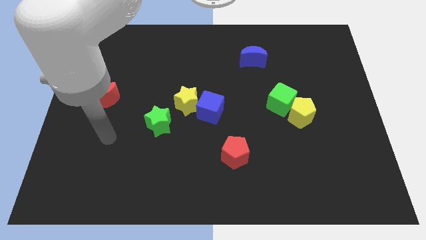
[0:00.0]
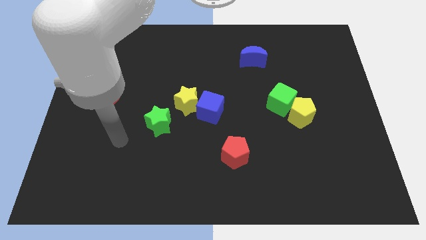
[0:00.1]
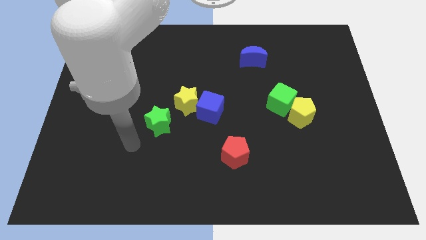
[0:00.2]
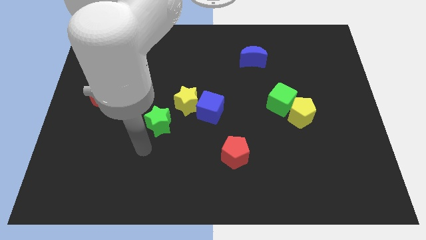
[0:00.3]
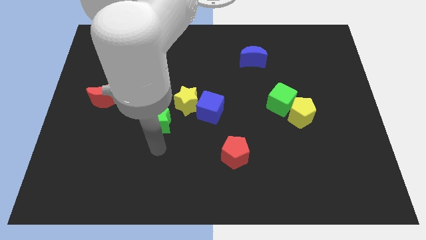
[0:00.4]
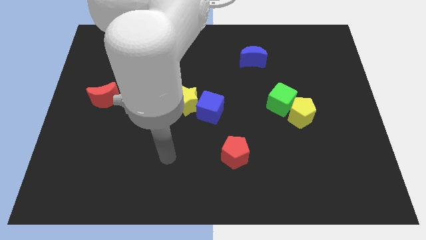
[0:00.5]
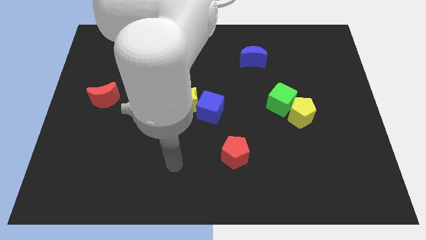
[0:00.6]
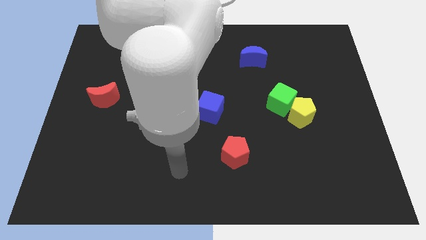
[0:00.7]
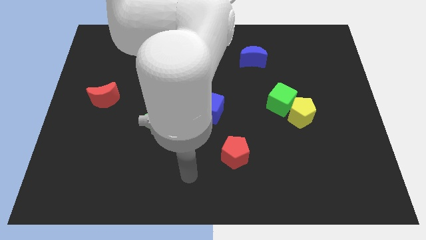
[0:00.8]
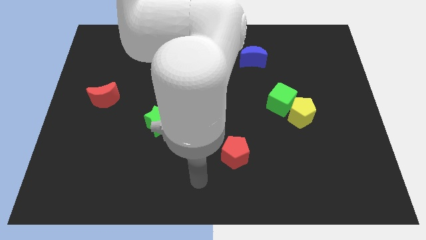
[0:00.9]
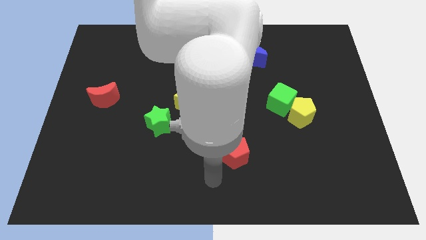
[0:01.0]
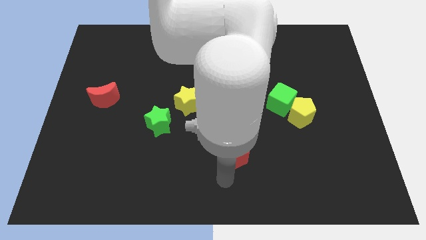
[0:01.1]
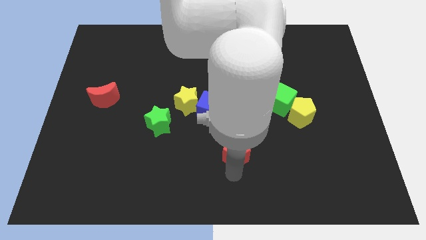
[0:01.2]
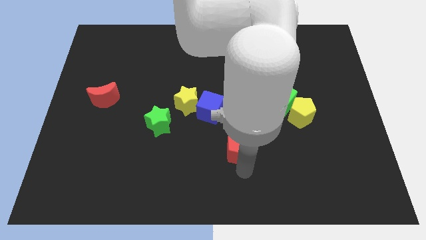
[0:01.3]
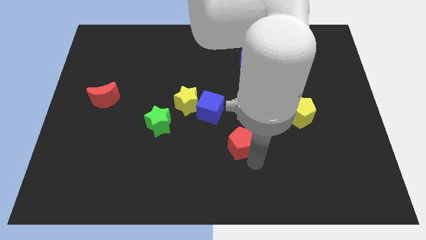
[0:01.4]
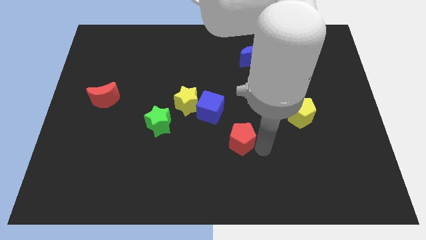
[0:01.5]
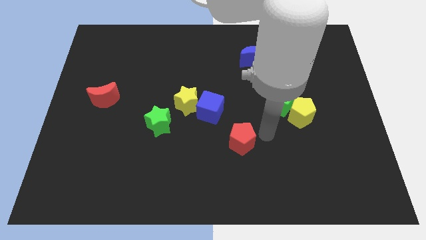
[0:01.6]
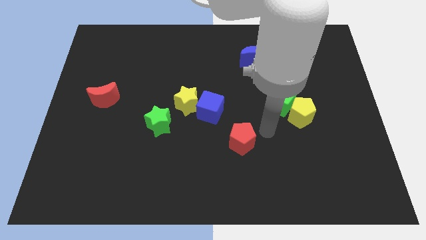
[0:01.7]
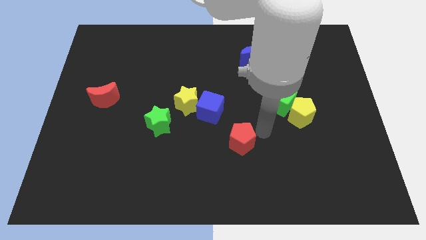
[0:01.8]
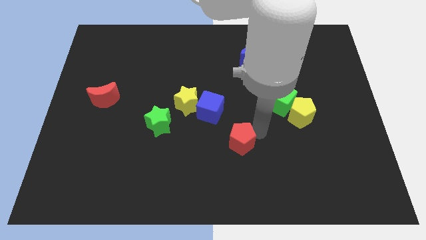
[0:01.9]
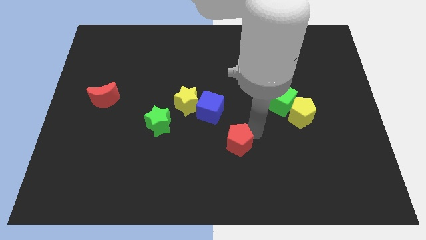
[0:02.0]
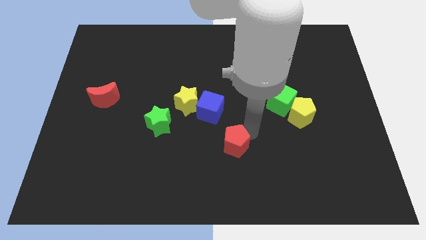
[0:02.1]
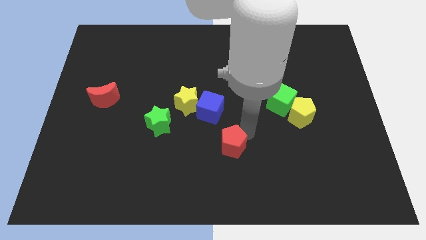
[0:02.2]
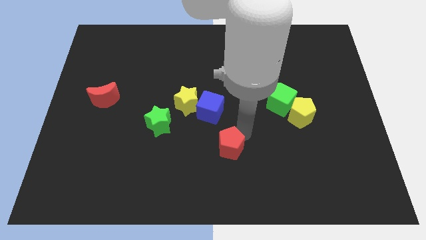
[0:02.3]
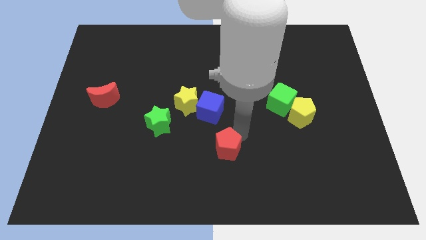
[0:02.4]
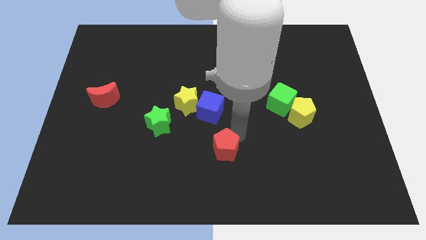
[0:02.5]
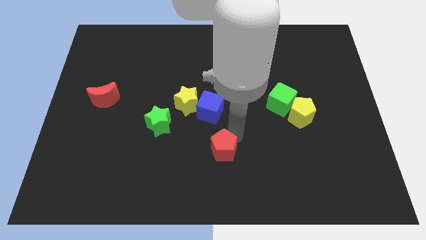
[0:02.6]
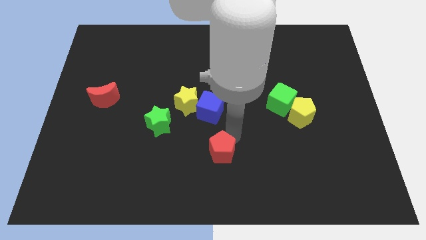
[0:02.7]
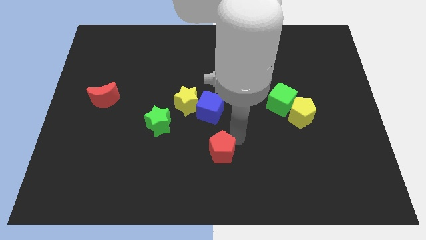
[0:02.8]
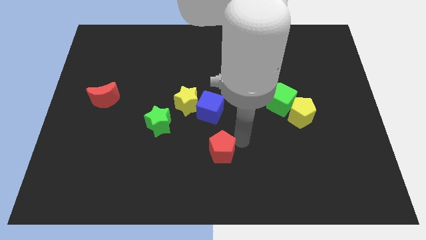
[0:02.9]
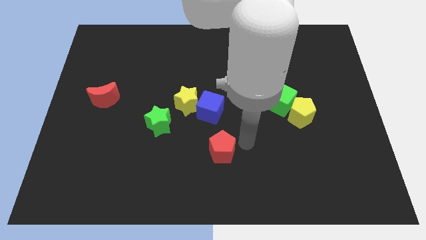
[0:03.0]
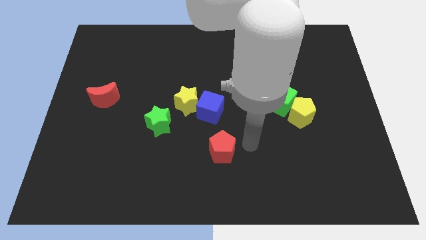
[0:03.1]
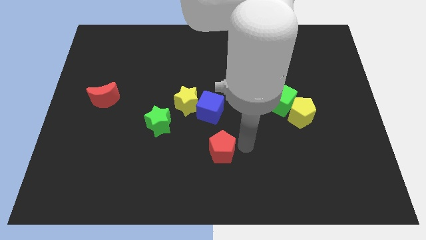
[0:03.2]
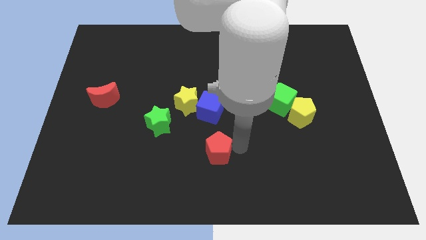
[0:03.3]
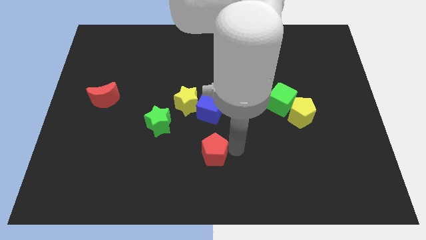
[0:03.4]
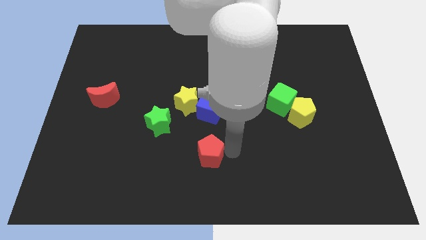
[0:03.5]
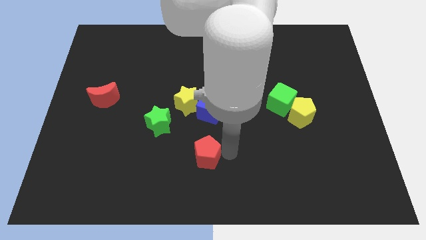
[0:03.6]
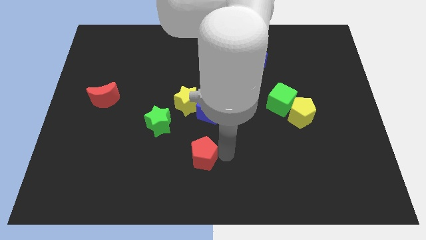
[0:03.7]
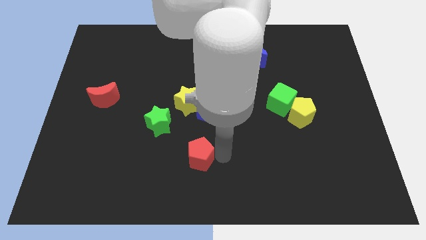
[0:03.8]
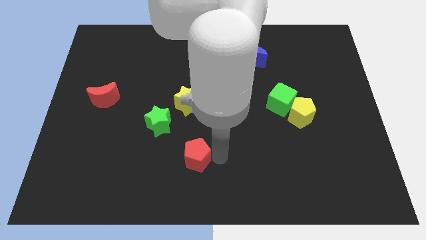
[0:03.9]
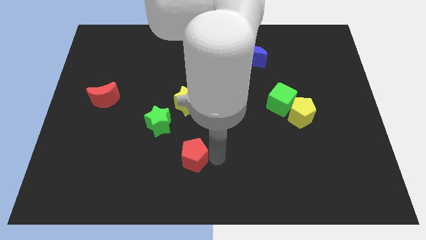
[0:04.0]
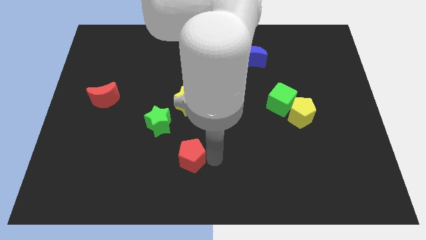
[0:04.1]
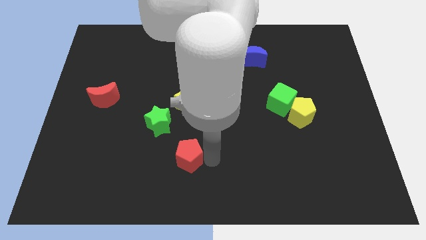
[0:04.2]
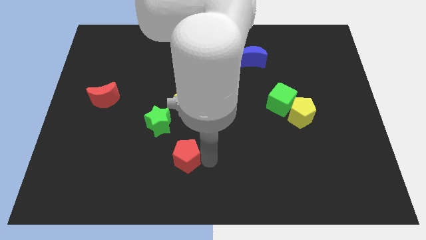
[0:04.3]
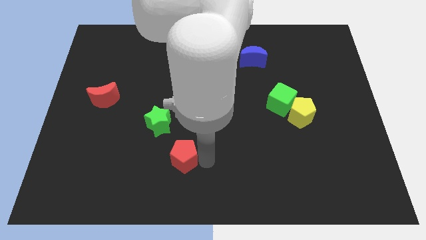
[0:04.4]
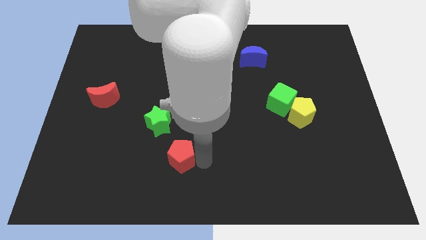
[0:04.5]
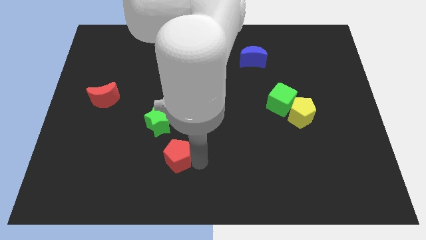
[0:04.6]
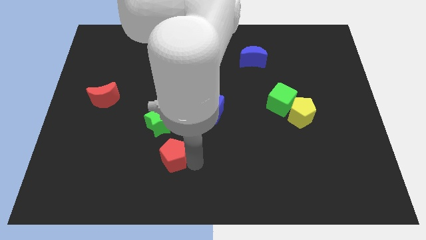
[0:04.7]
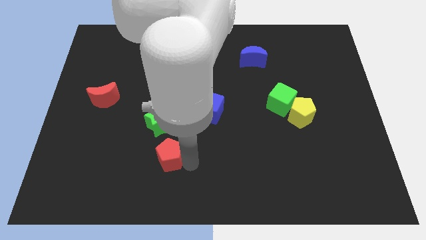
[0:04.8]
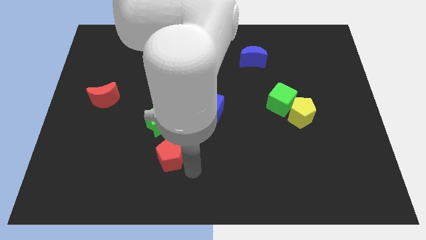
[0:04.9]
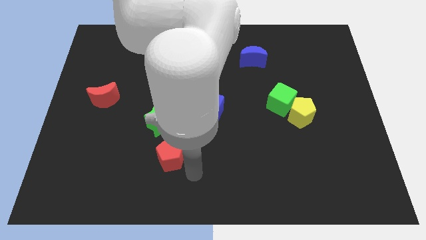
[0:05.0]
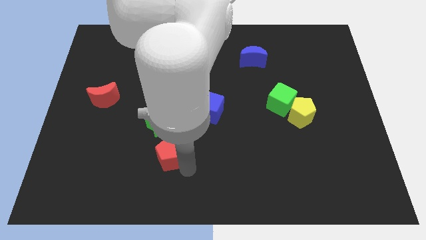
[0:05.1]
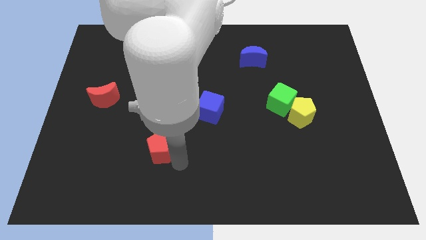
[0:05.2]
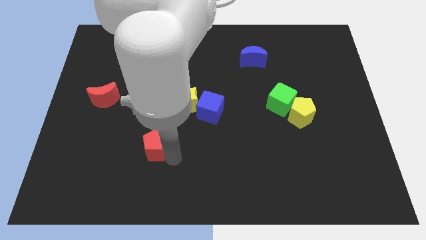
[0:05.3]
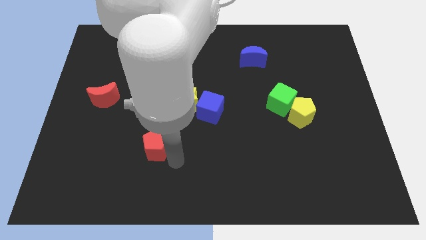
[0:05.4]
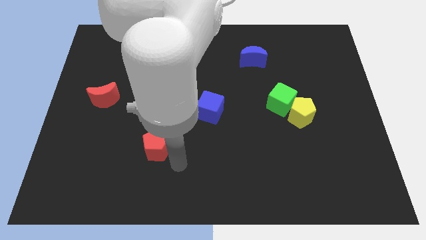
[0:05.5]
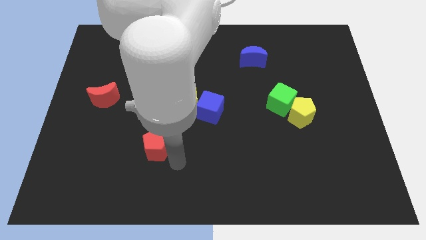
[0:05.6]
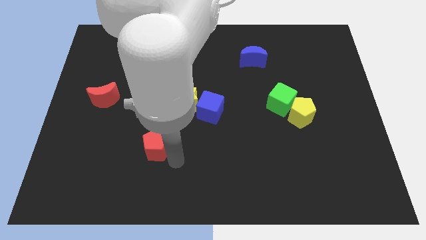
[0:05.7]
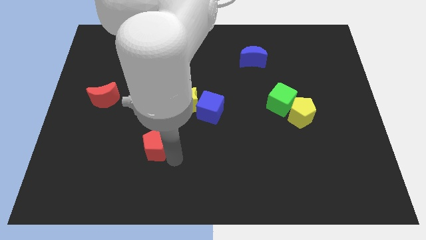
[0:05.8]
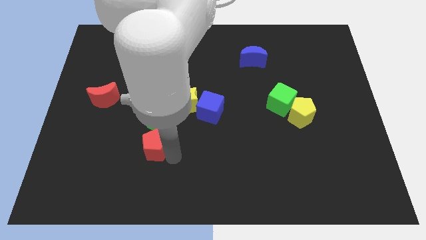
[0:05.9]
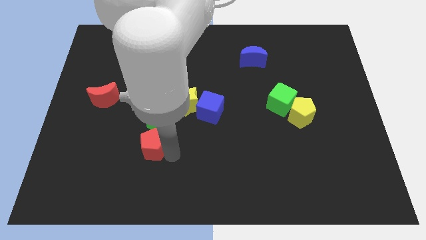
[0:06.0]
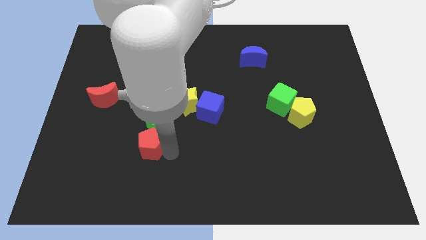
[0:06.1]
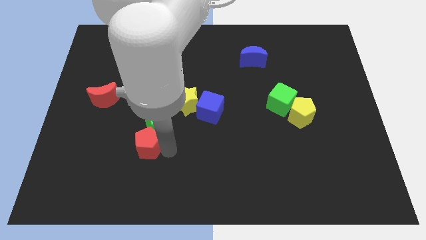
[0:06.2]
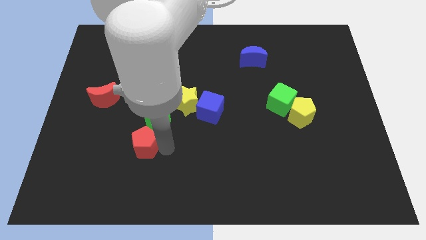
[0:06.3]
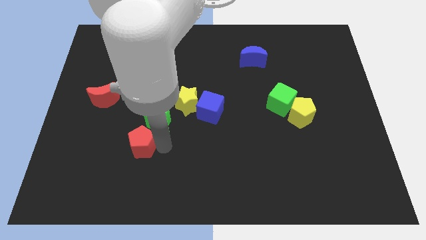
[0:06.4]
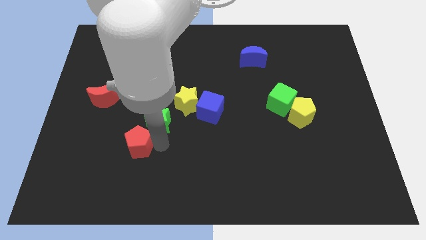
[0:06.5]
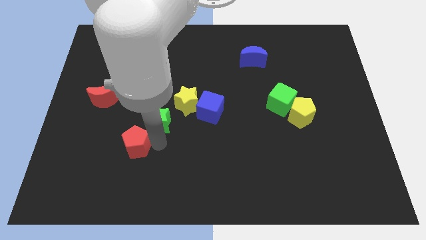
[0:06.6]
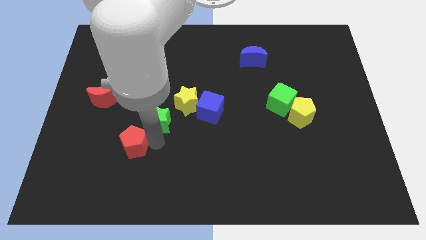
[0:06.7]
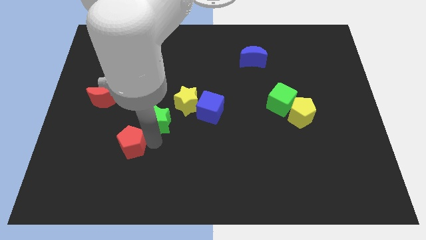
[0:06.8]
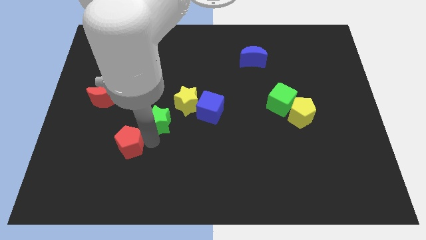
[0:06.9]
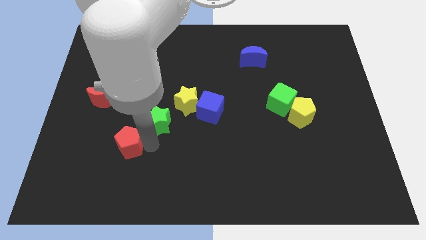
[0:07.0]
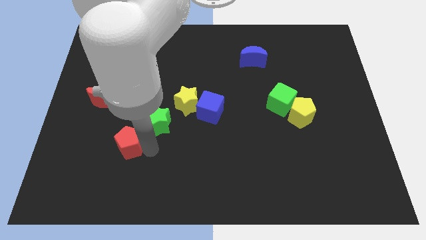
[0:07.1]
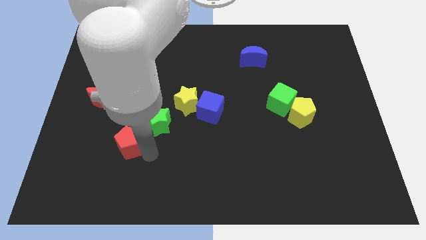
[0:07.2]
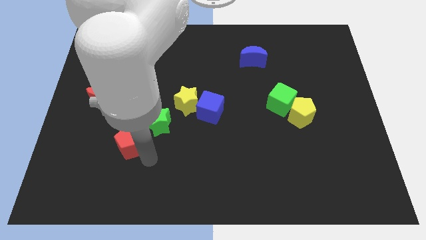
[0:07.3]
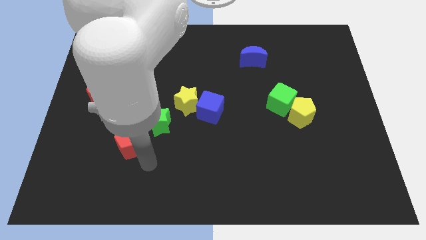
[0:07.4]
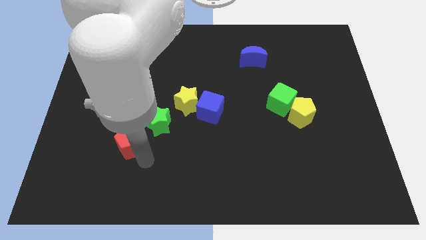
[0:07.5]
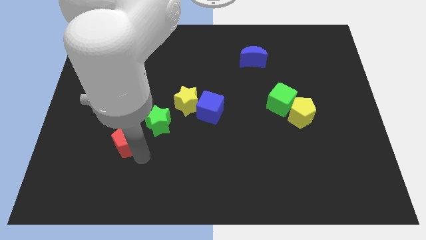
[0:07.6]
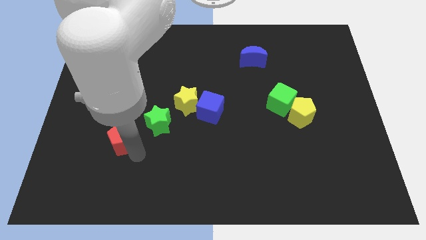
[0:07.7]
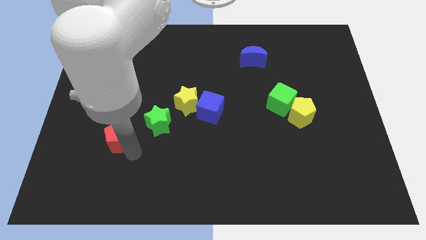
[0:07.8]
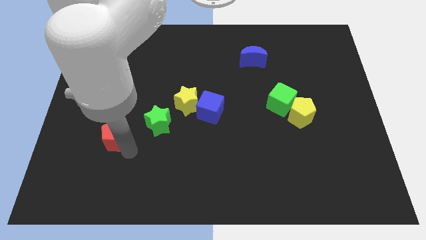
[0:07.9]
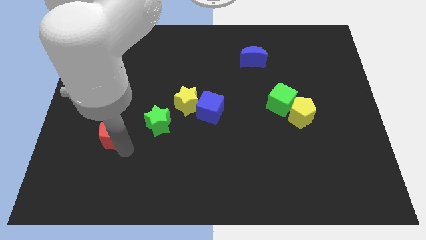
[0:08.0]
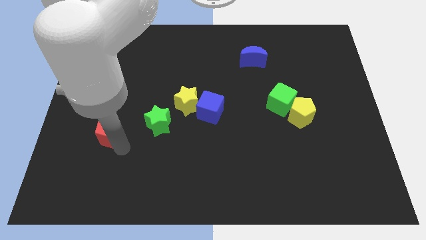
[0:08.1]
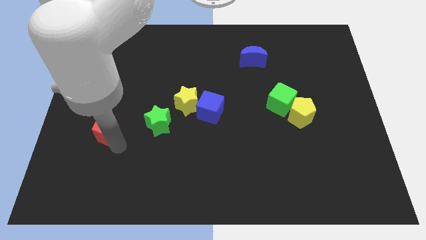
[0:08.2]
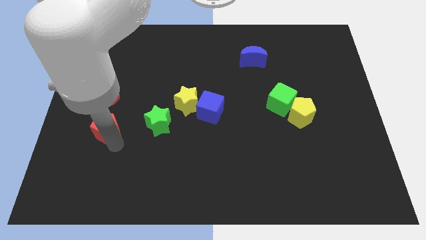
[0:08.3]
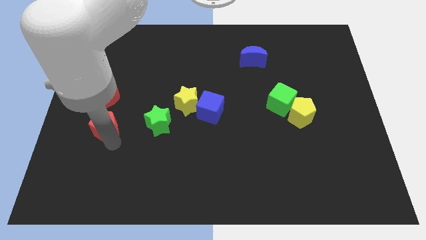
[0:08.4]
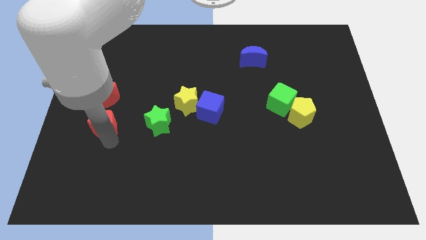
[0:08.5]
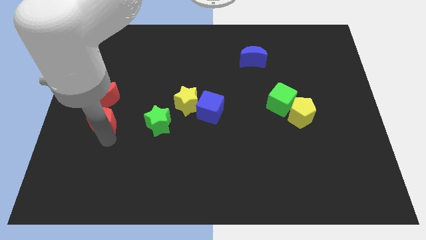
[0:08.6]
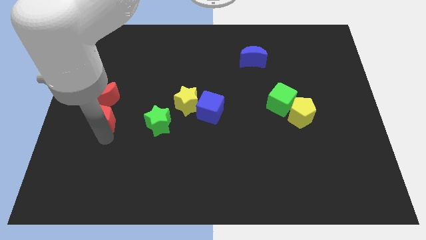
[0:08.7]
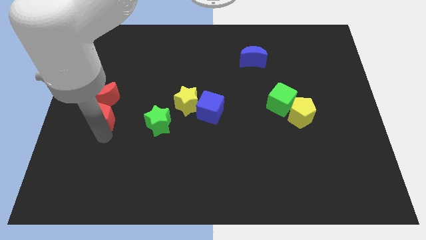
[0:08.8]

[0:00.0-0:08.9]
put the red pentagon towards the red moon
